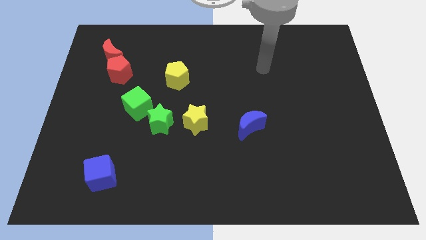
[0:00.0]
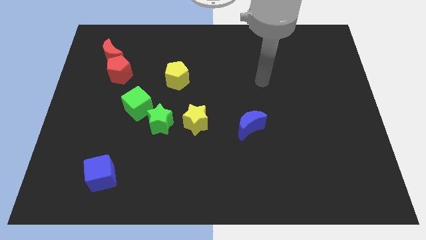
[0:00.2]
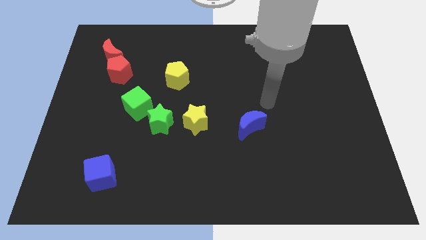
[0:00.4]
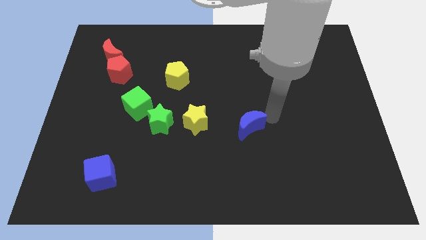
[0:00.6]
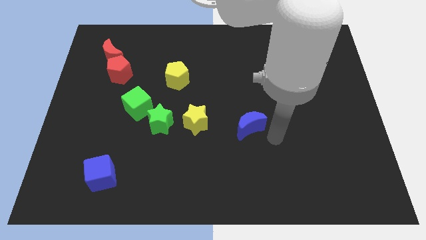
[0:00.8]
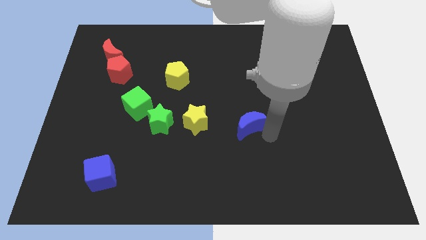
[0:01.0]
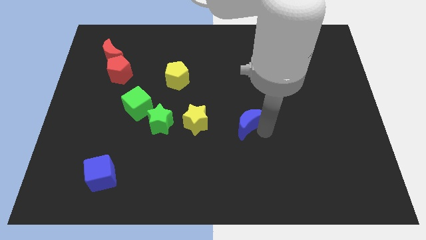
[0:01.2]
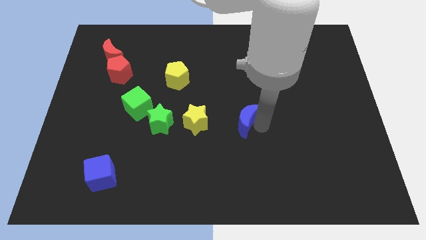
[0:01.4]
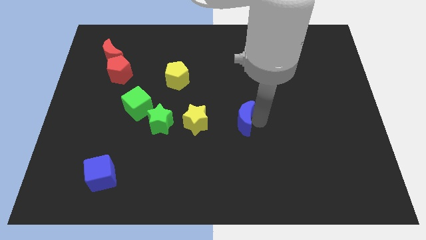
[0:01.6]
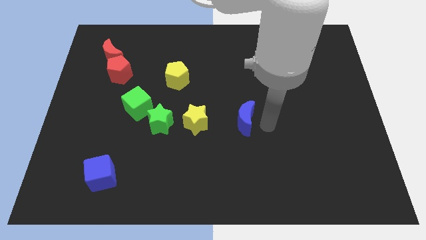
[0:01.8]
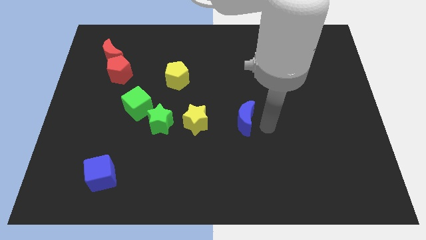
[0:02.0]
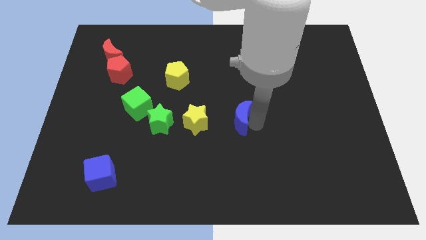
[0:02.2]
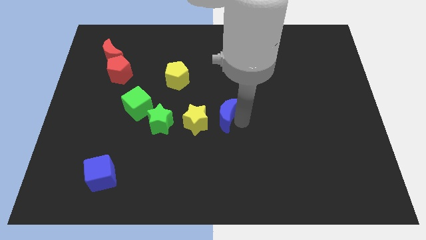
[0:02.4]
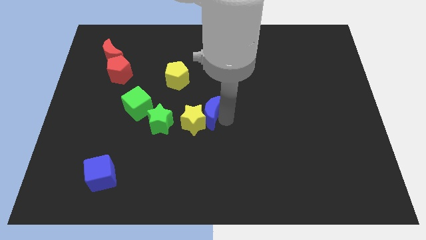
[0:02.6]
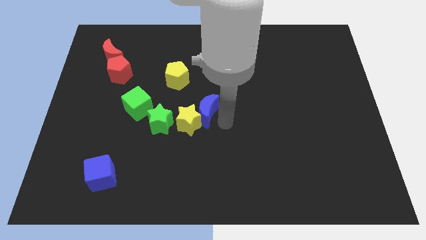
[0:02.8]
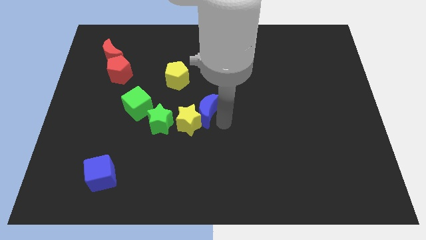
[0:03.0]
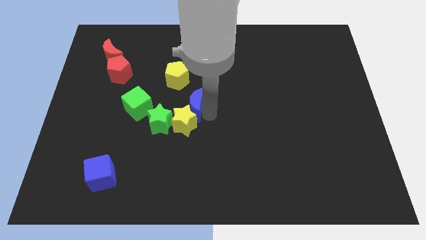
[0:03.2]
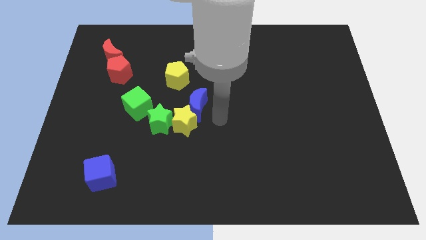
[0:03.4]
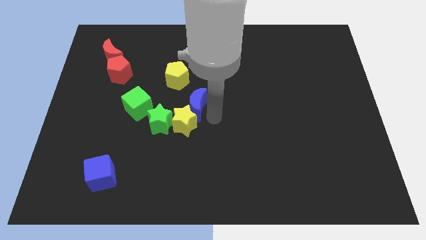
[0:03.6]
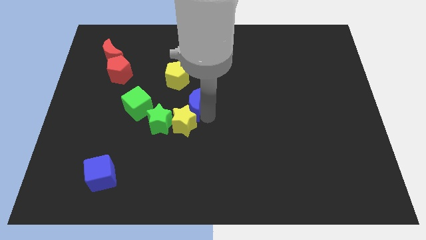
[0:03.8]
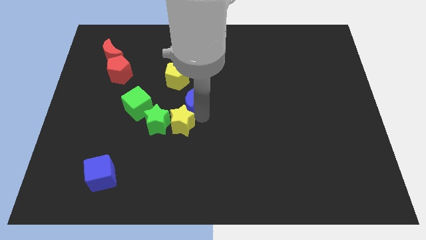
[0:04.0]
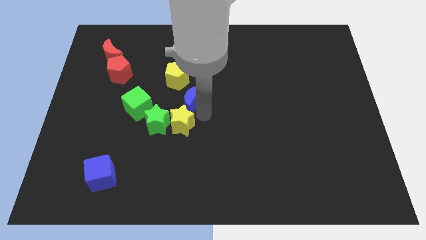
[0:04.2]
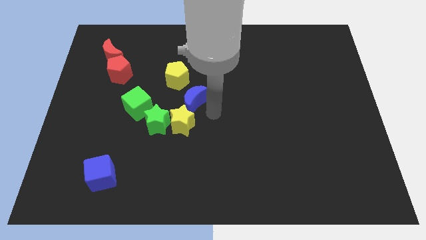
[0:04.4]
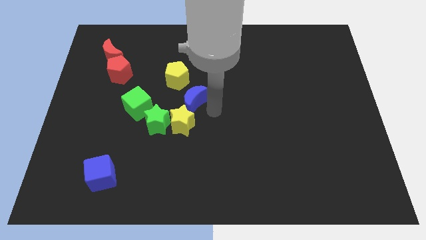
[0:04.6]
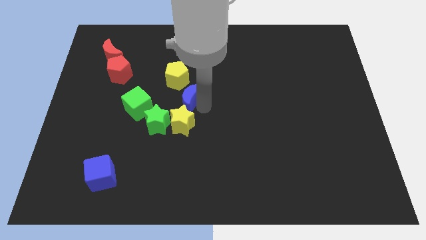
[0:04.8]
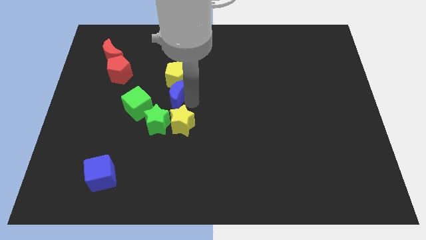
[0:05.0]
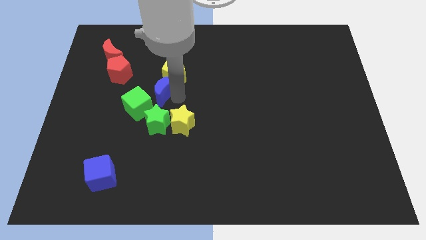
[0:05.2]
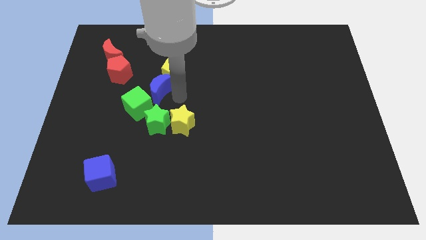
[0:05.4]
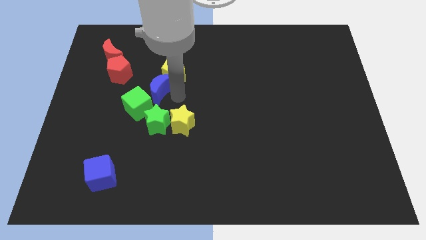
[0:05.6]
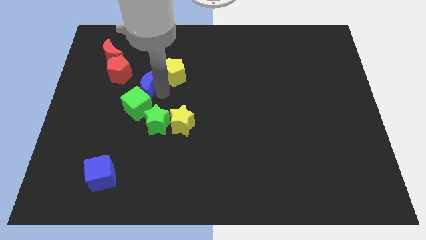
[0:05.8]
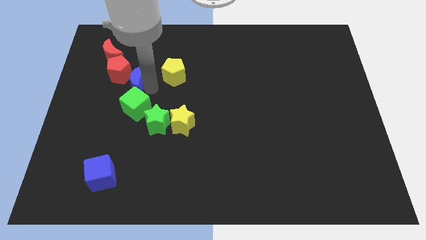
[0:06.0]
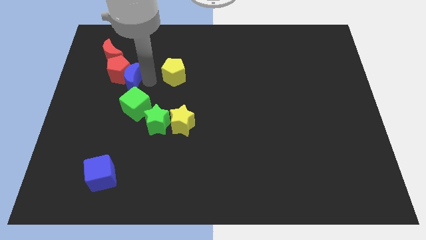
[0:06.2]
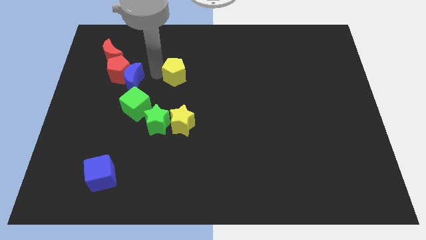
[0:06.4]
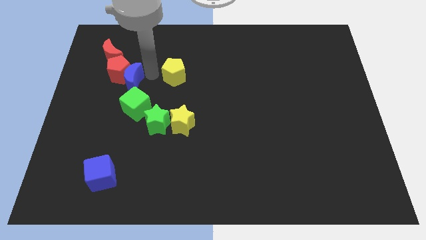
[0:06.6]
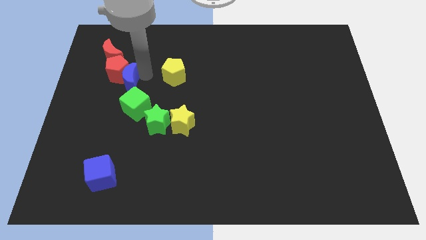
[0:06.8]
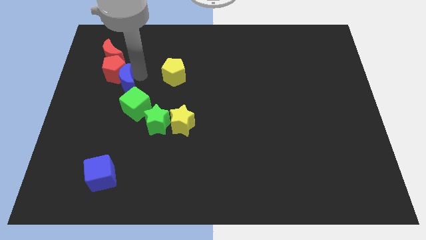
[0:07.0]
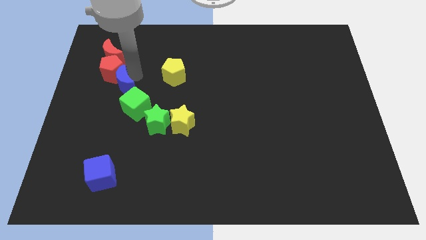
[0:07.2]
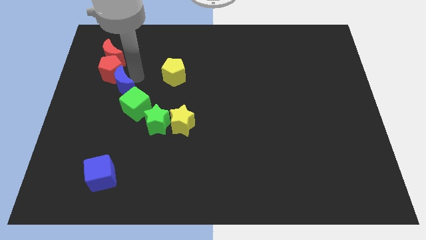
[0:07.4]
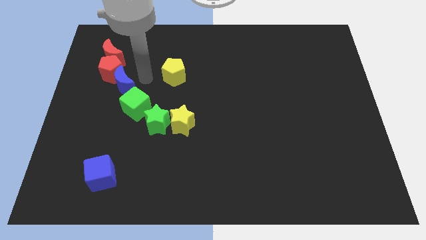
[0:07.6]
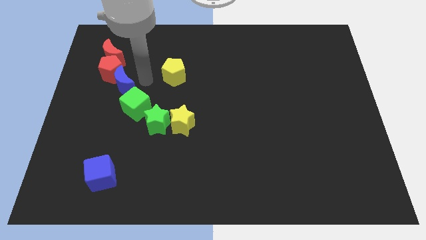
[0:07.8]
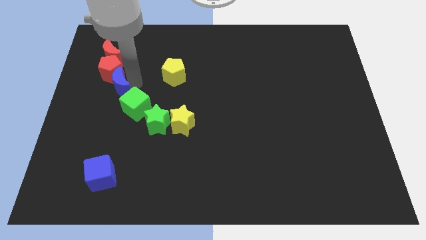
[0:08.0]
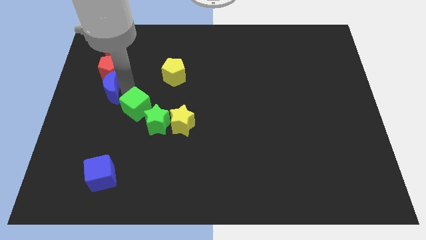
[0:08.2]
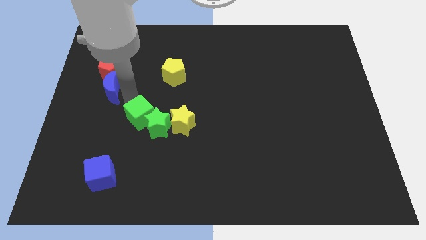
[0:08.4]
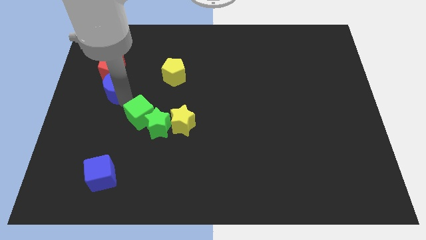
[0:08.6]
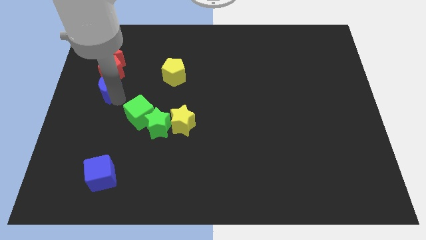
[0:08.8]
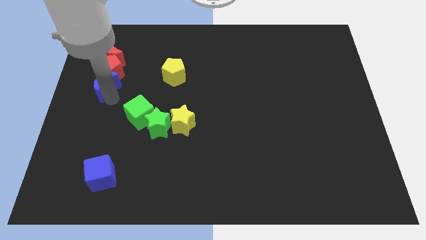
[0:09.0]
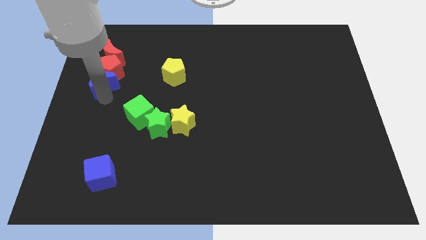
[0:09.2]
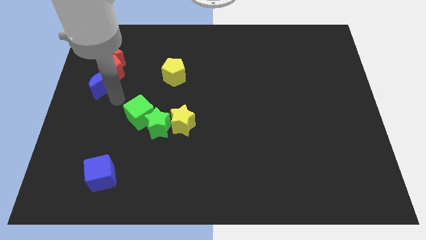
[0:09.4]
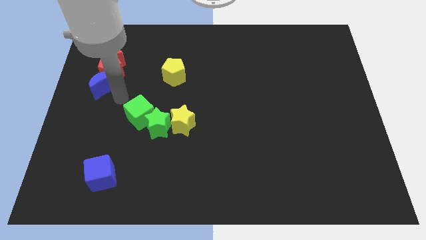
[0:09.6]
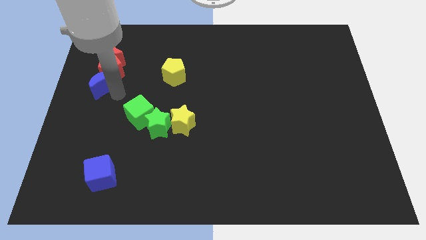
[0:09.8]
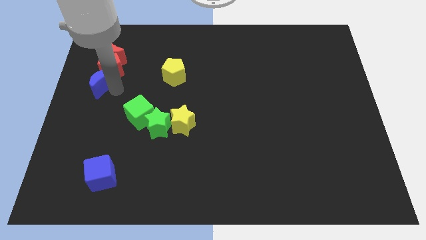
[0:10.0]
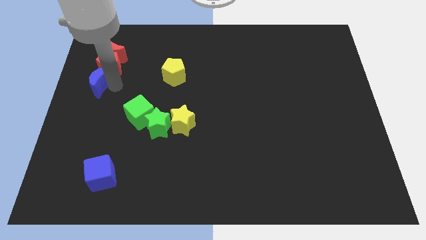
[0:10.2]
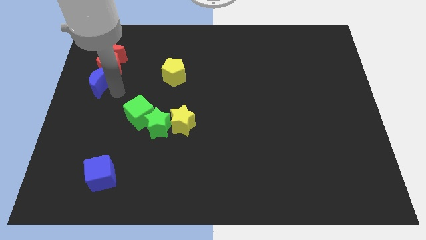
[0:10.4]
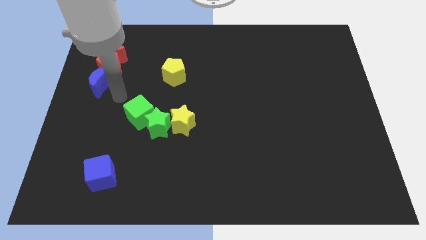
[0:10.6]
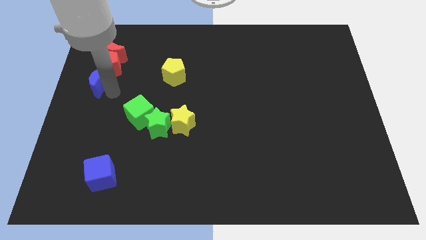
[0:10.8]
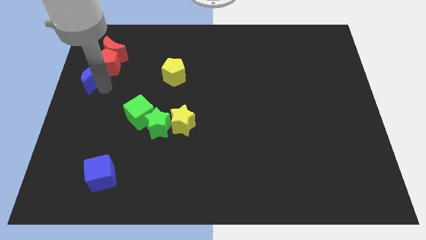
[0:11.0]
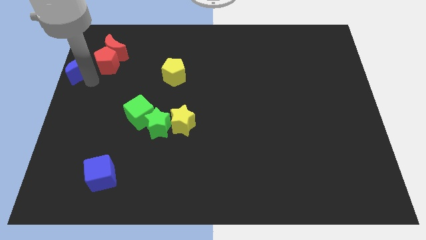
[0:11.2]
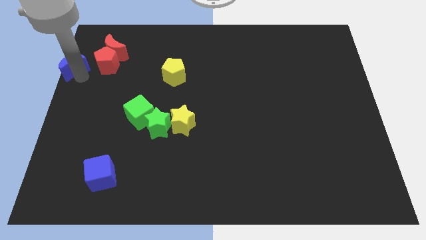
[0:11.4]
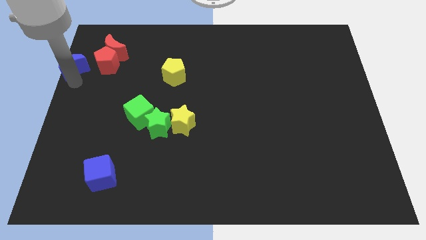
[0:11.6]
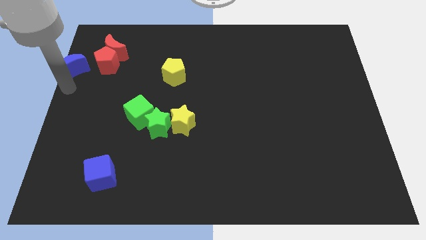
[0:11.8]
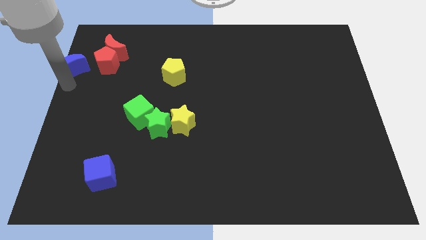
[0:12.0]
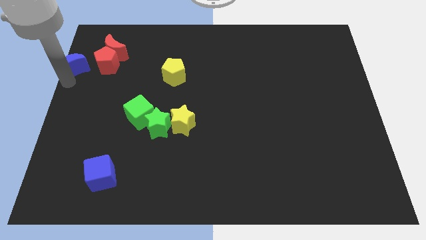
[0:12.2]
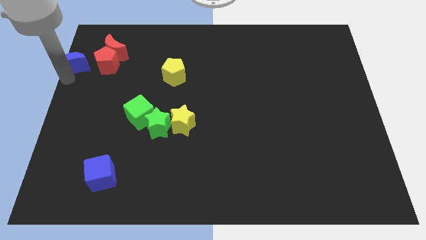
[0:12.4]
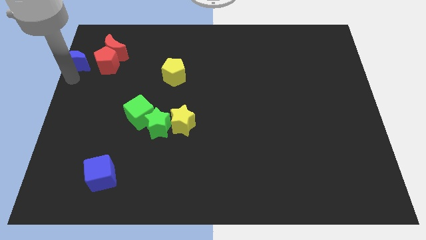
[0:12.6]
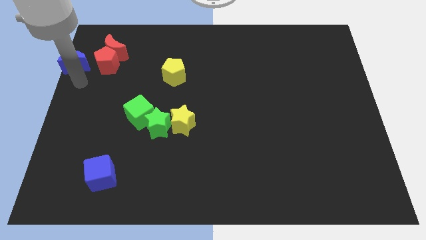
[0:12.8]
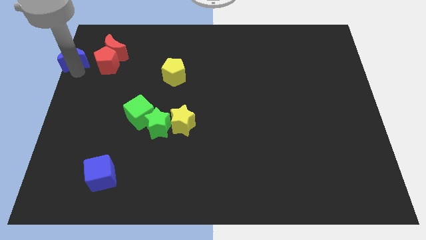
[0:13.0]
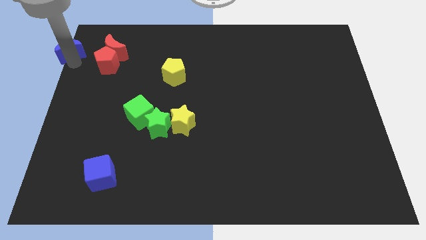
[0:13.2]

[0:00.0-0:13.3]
put the blue moon to the top left
